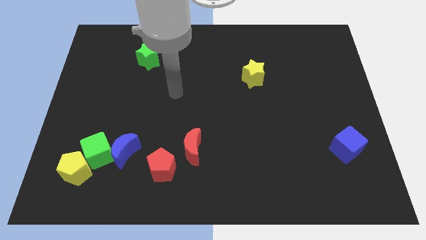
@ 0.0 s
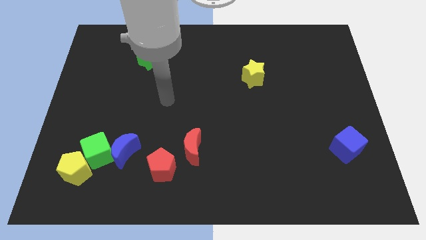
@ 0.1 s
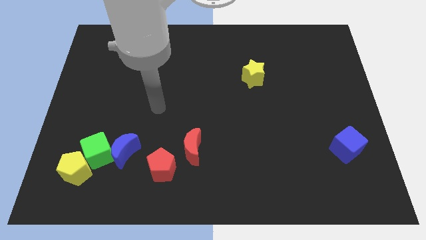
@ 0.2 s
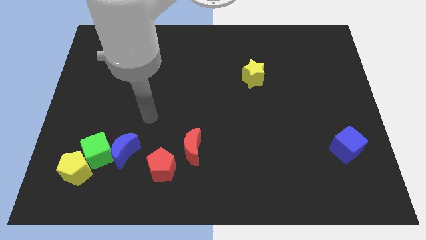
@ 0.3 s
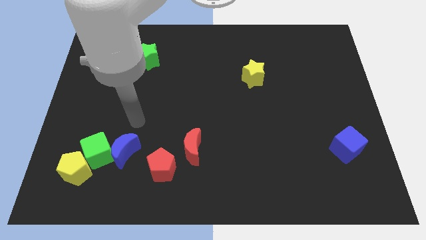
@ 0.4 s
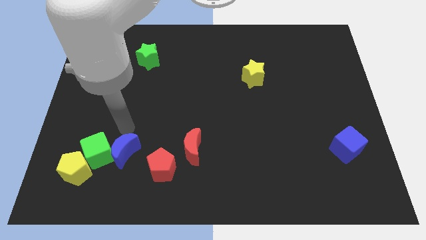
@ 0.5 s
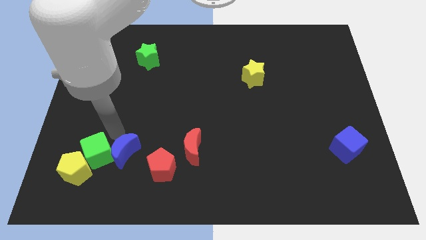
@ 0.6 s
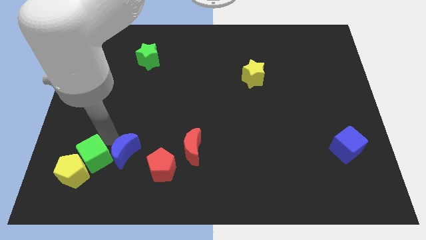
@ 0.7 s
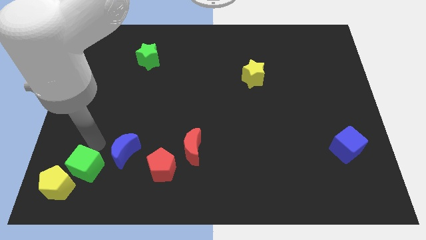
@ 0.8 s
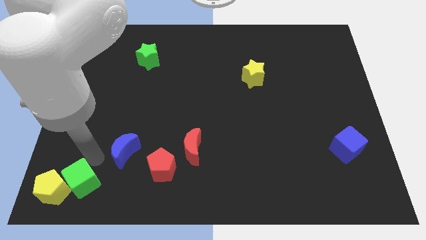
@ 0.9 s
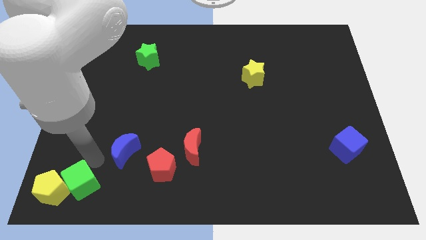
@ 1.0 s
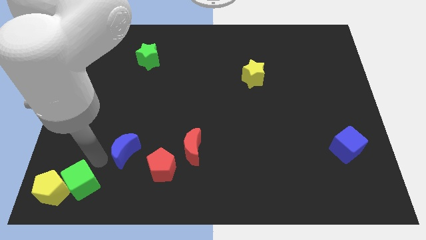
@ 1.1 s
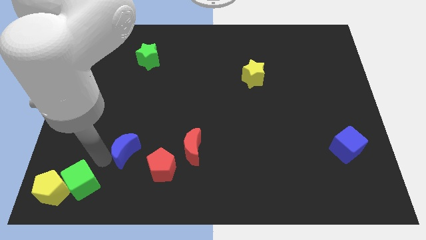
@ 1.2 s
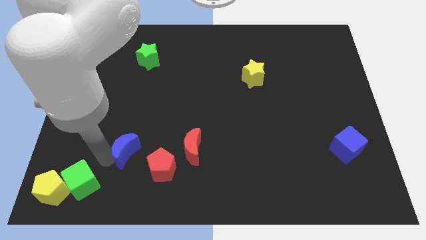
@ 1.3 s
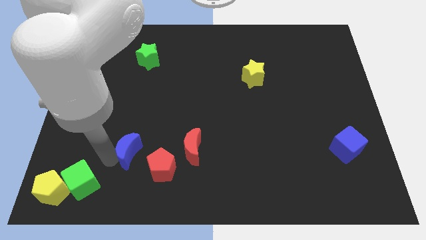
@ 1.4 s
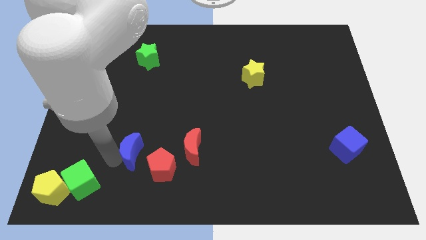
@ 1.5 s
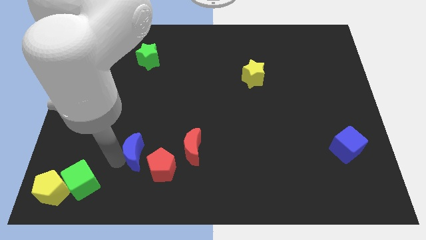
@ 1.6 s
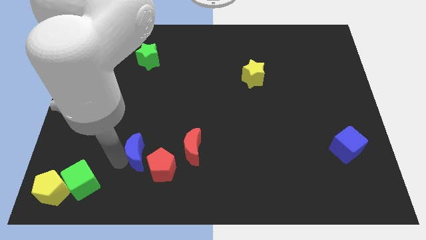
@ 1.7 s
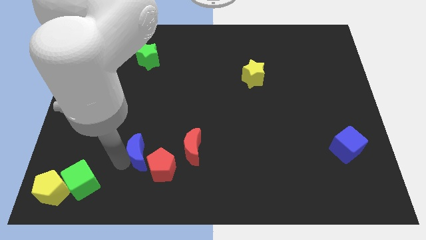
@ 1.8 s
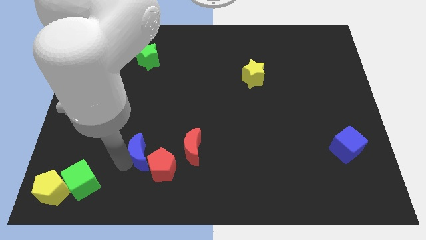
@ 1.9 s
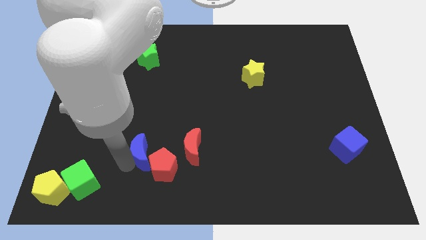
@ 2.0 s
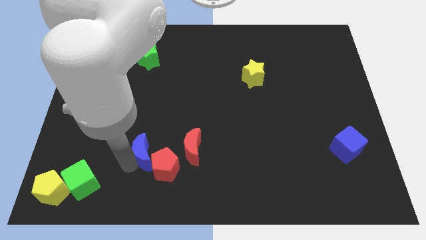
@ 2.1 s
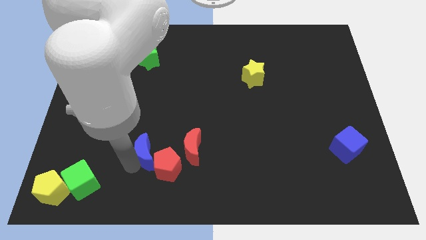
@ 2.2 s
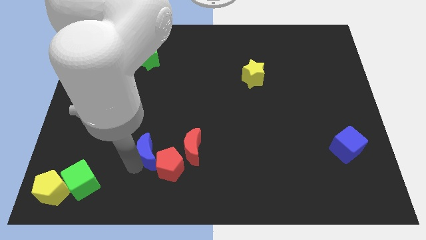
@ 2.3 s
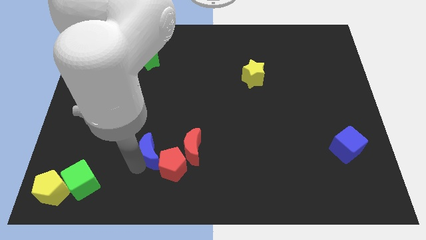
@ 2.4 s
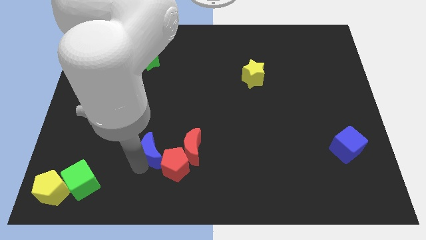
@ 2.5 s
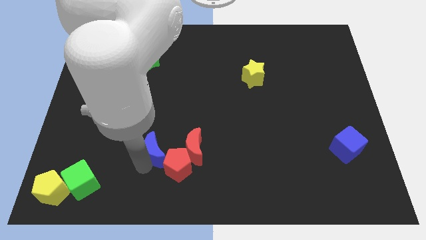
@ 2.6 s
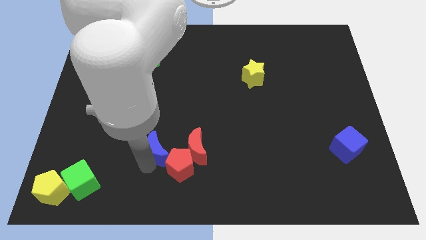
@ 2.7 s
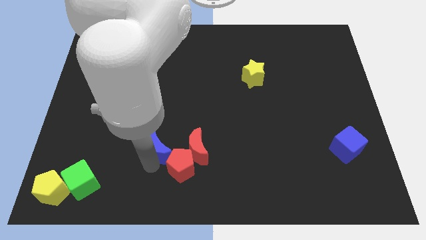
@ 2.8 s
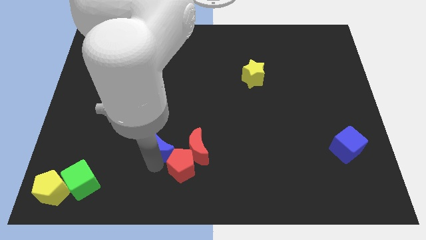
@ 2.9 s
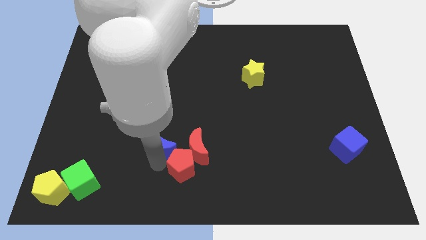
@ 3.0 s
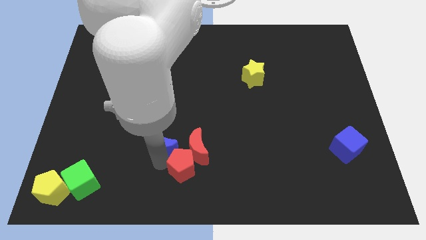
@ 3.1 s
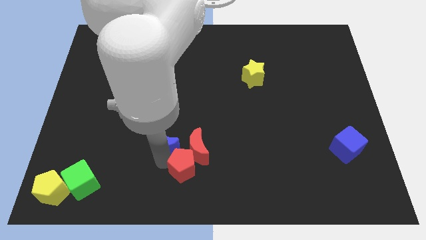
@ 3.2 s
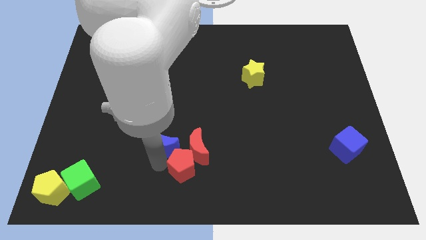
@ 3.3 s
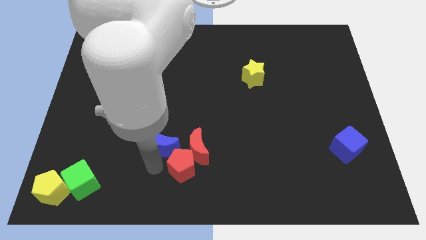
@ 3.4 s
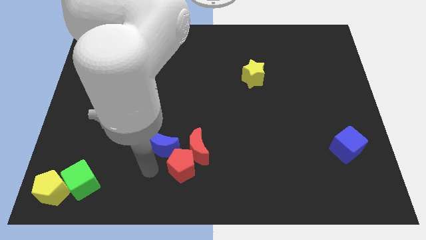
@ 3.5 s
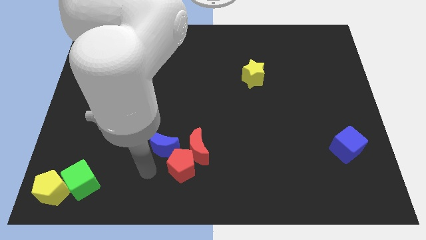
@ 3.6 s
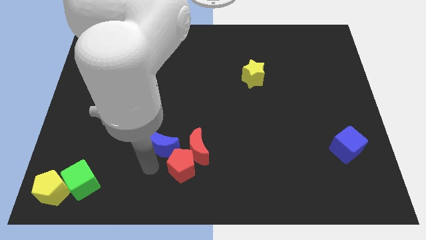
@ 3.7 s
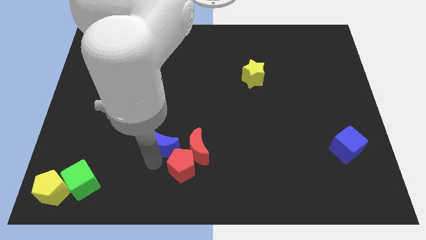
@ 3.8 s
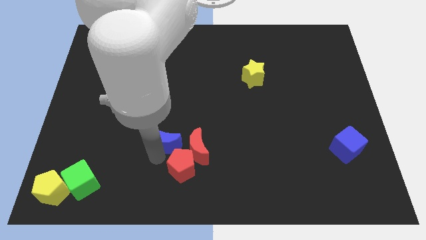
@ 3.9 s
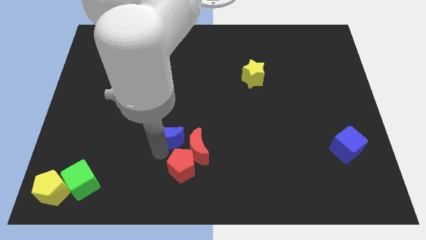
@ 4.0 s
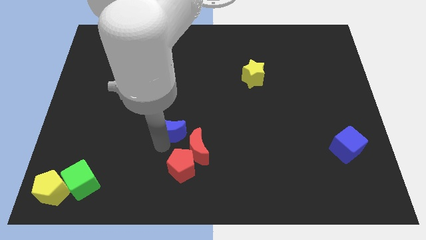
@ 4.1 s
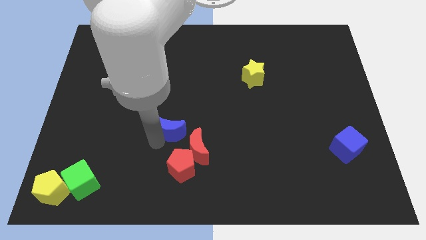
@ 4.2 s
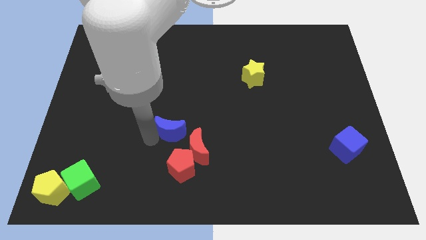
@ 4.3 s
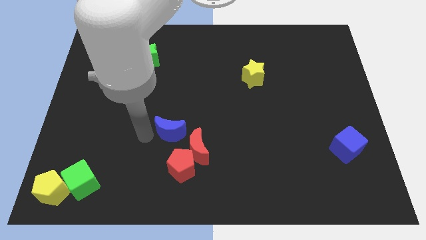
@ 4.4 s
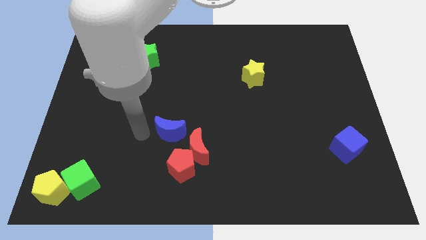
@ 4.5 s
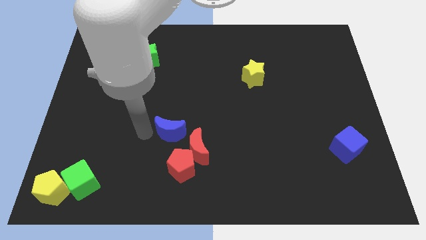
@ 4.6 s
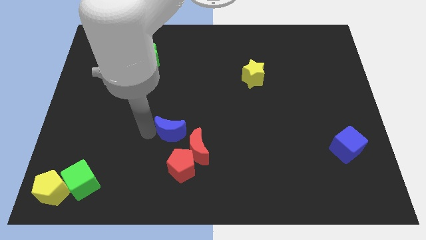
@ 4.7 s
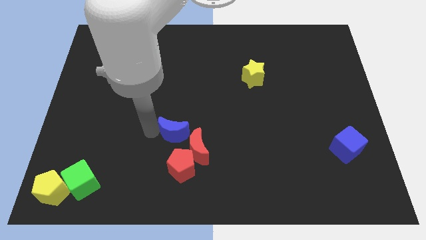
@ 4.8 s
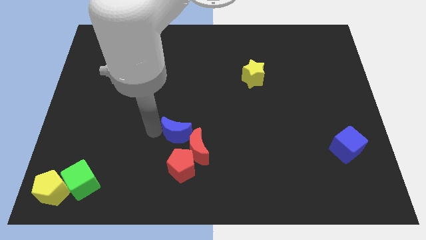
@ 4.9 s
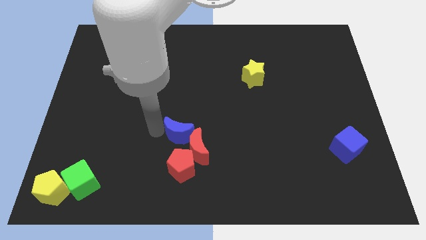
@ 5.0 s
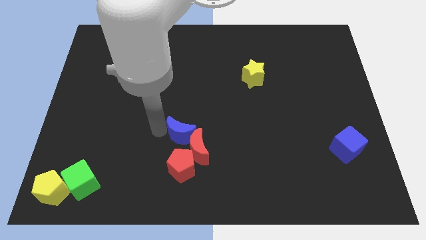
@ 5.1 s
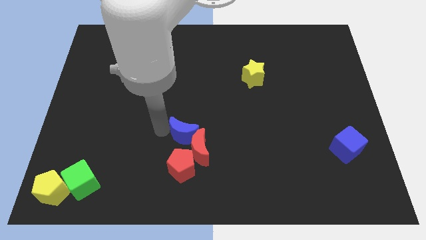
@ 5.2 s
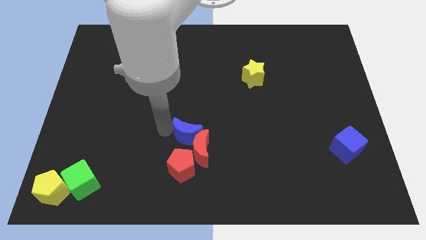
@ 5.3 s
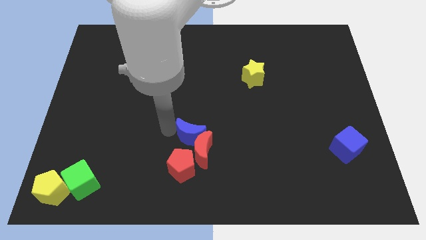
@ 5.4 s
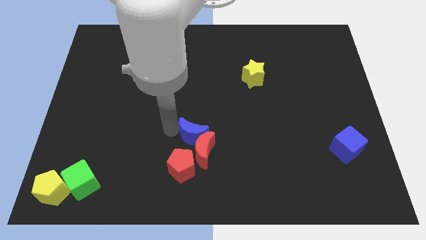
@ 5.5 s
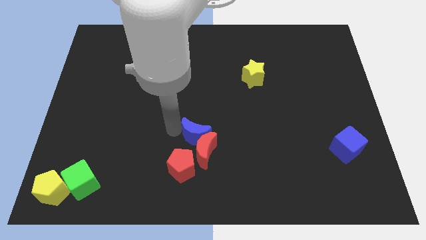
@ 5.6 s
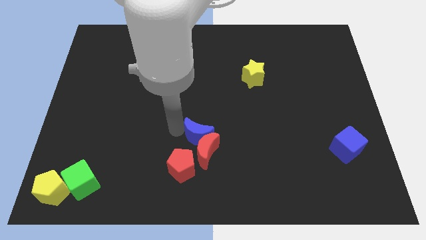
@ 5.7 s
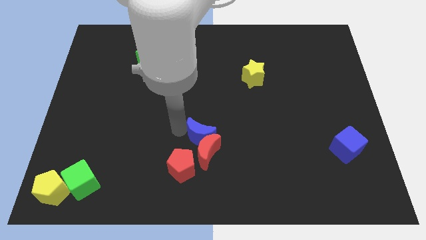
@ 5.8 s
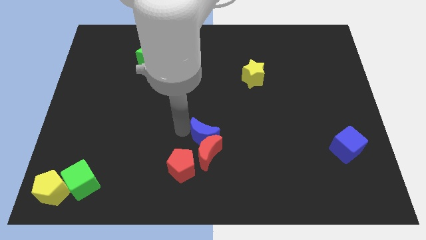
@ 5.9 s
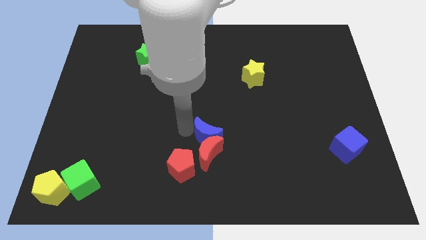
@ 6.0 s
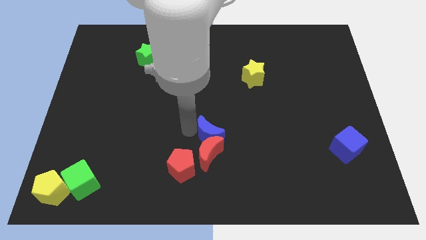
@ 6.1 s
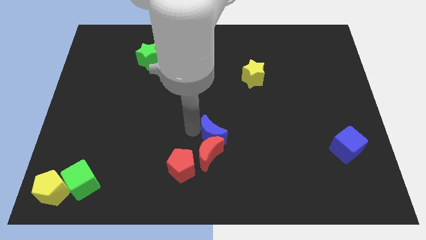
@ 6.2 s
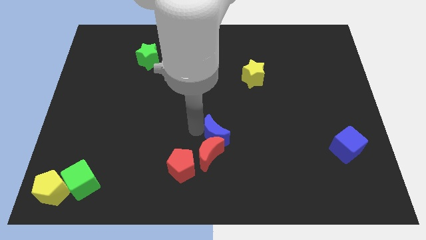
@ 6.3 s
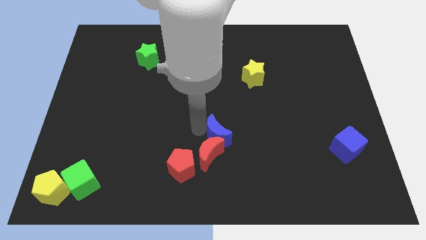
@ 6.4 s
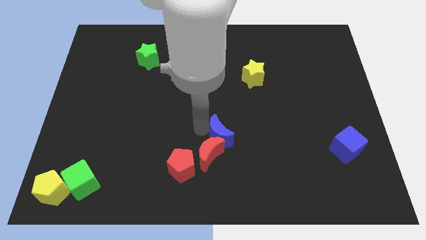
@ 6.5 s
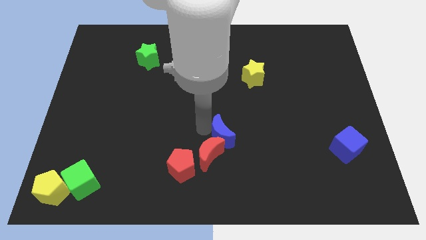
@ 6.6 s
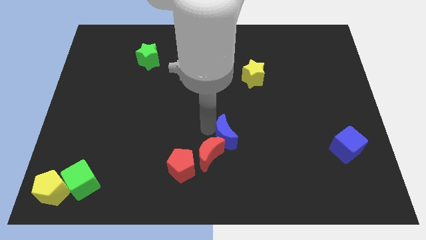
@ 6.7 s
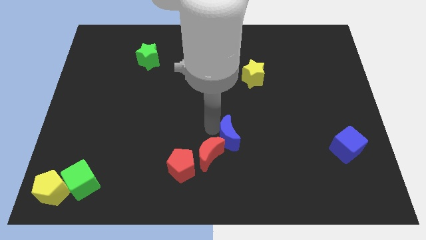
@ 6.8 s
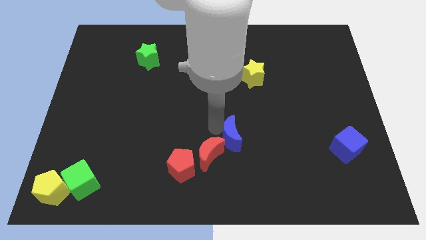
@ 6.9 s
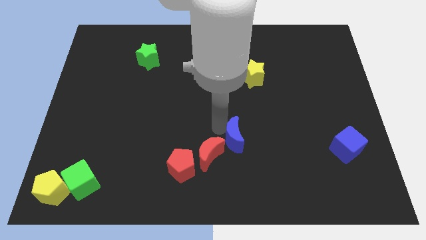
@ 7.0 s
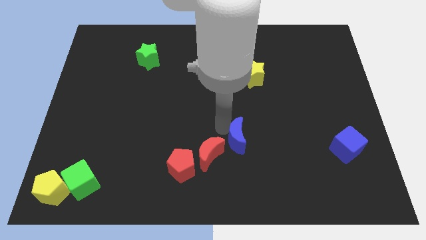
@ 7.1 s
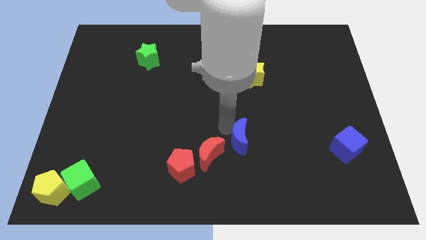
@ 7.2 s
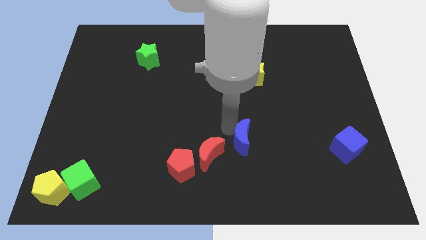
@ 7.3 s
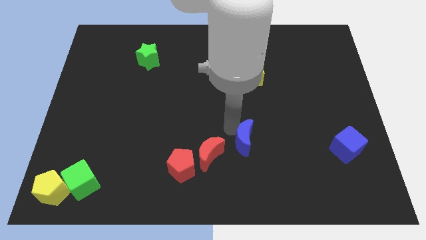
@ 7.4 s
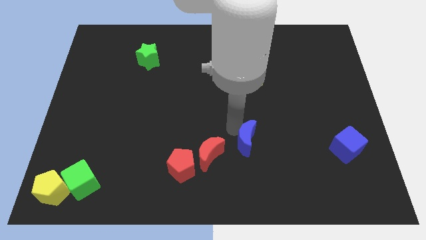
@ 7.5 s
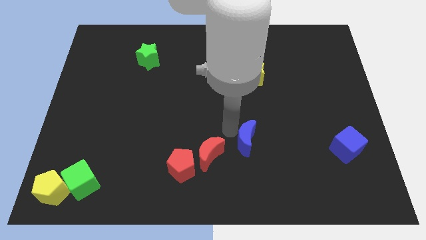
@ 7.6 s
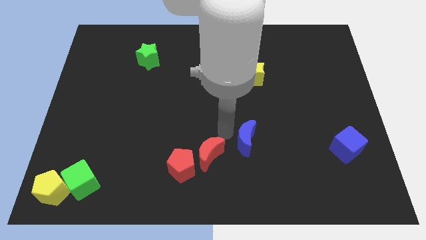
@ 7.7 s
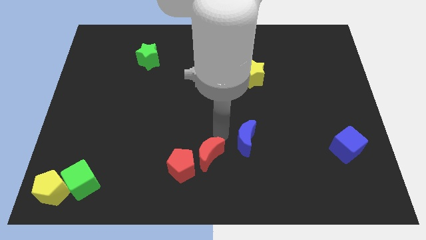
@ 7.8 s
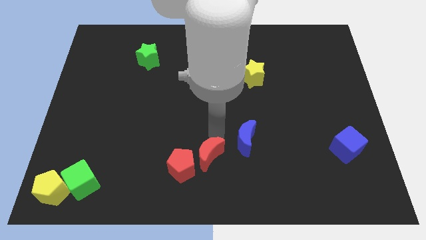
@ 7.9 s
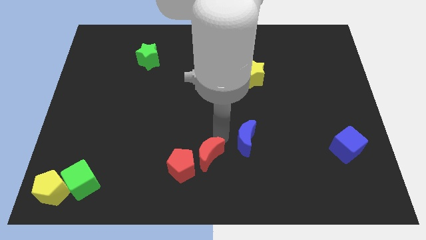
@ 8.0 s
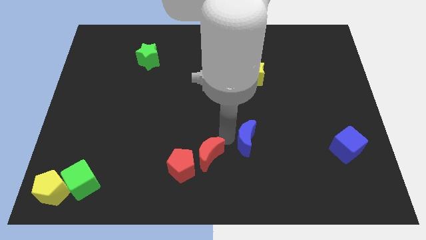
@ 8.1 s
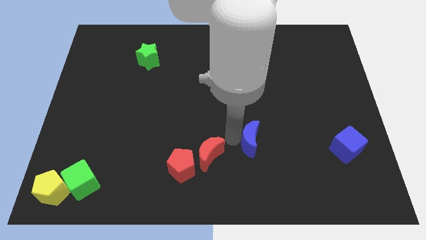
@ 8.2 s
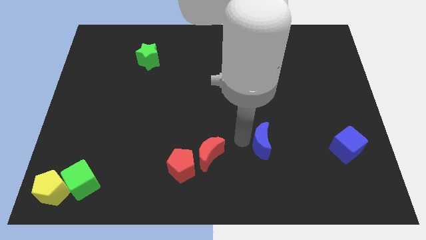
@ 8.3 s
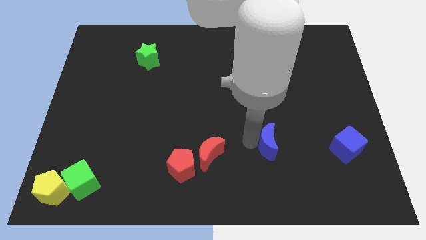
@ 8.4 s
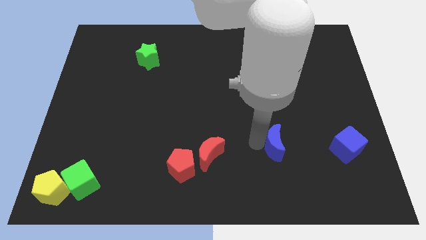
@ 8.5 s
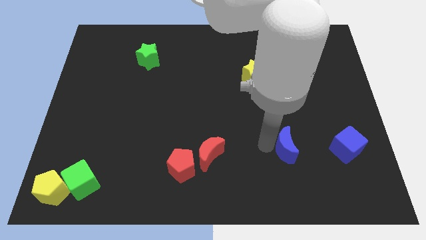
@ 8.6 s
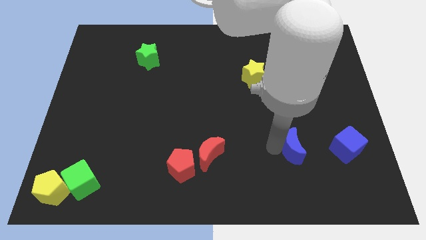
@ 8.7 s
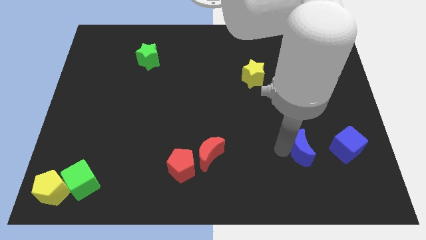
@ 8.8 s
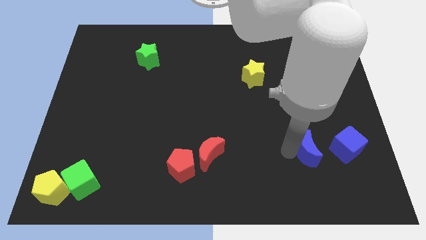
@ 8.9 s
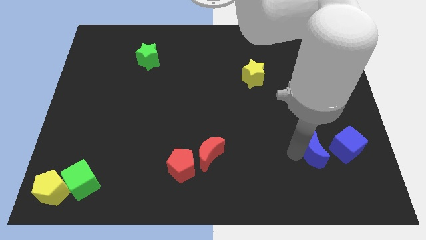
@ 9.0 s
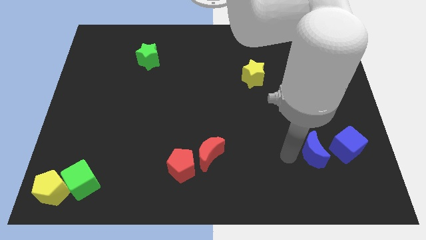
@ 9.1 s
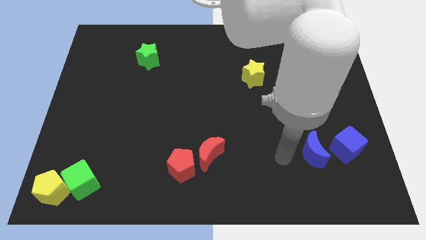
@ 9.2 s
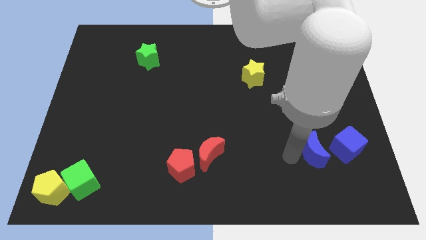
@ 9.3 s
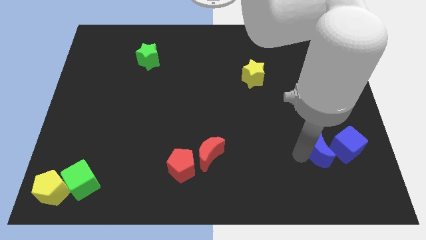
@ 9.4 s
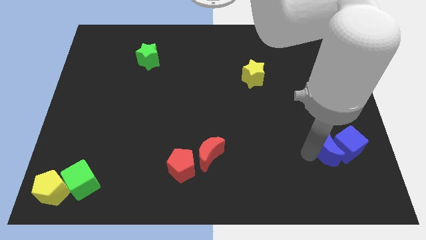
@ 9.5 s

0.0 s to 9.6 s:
slide the blue moon to the blue cube
